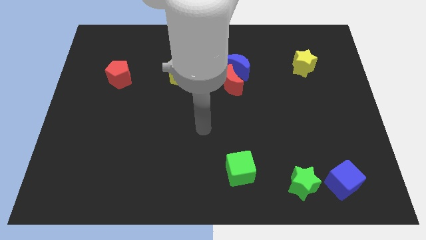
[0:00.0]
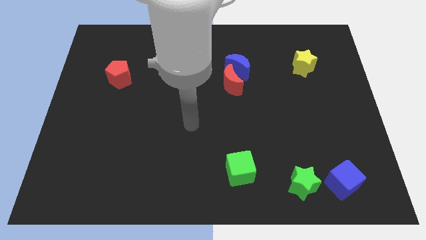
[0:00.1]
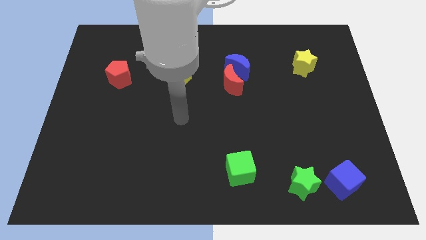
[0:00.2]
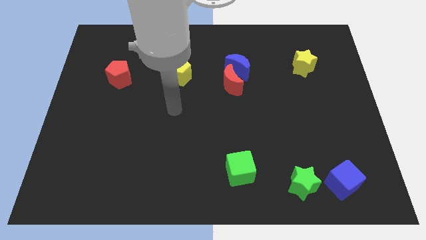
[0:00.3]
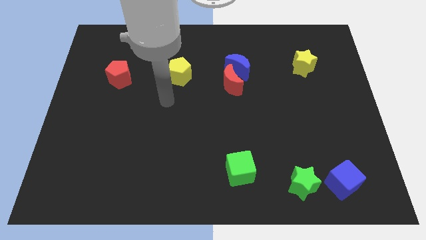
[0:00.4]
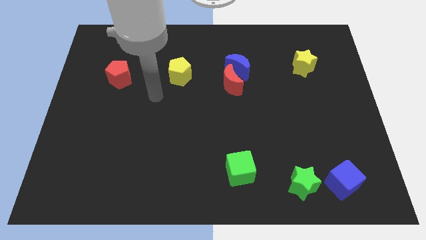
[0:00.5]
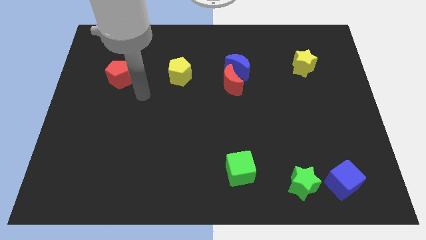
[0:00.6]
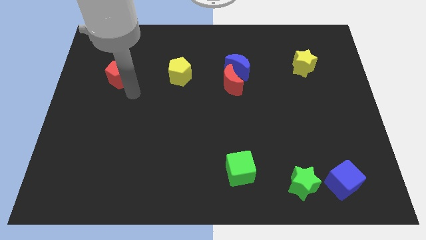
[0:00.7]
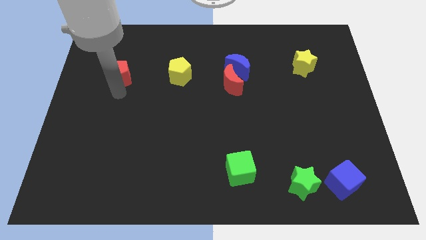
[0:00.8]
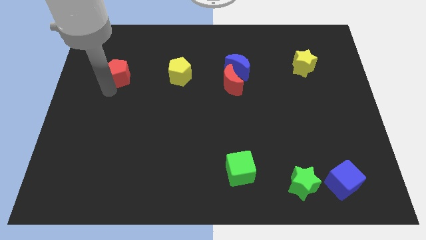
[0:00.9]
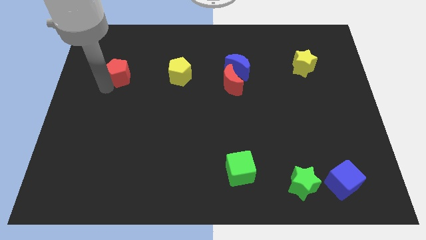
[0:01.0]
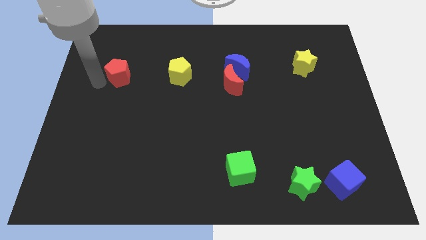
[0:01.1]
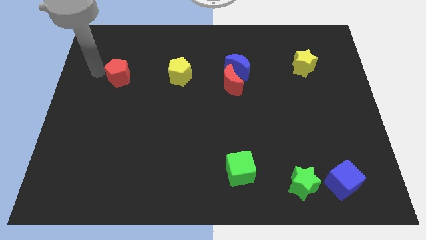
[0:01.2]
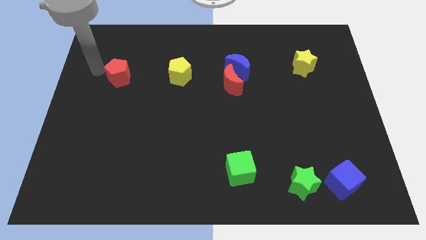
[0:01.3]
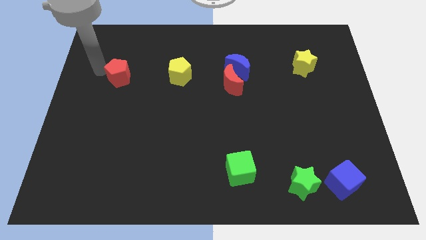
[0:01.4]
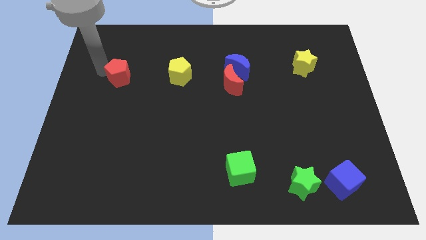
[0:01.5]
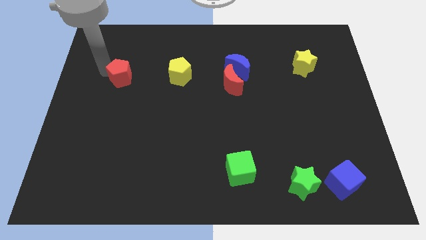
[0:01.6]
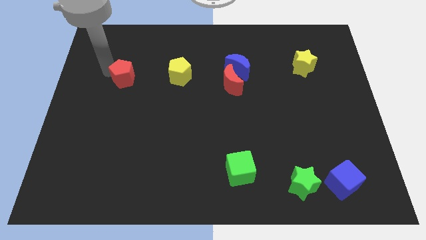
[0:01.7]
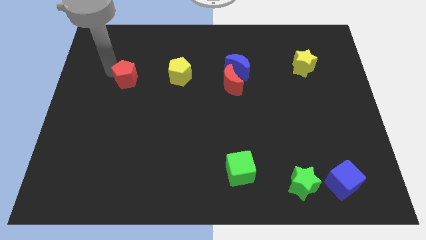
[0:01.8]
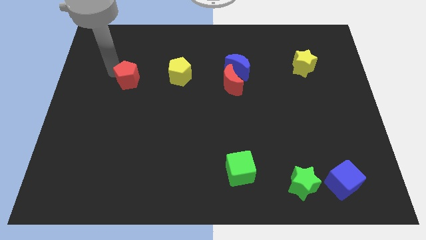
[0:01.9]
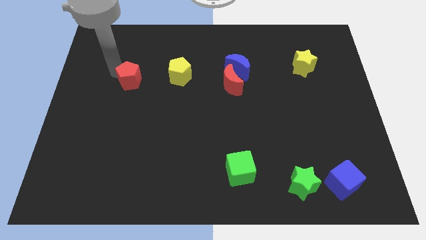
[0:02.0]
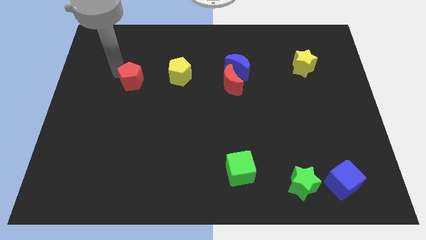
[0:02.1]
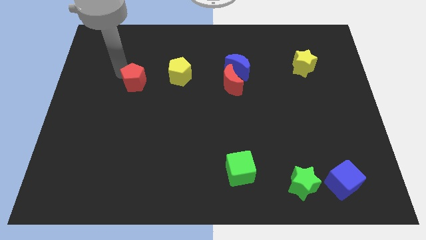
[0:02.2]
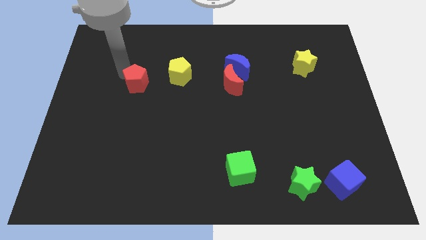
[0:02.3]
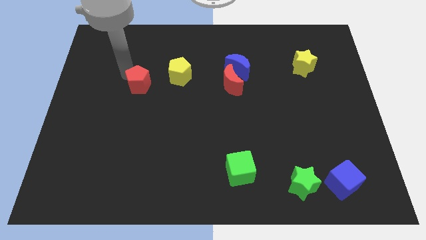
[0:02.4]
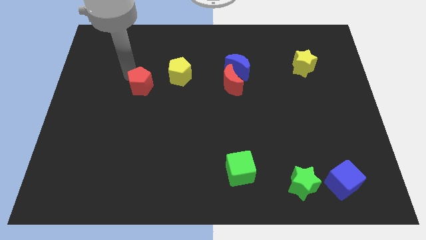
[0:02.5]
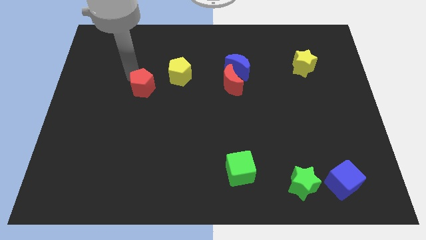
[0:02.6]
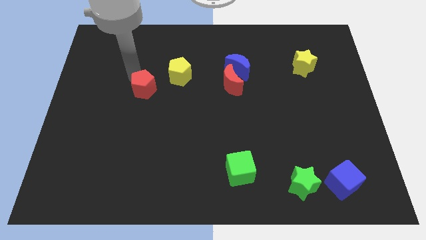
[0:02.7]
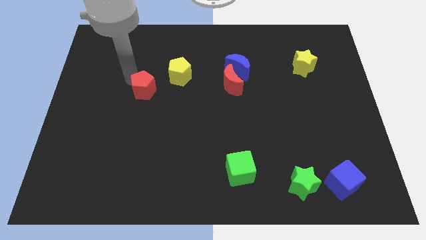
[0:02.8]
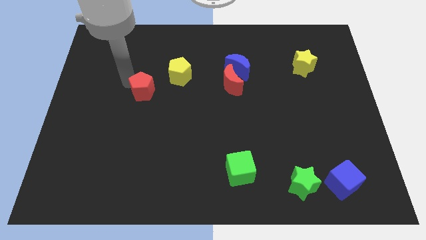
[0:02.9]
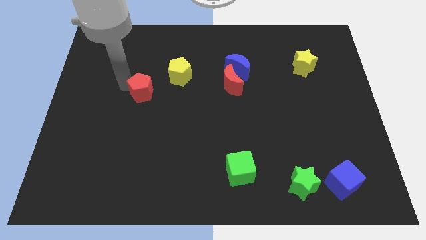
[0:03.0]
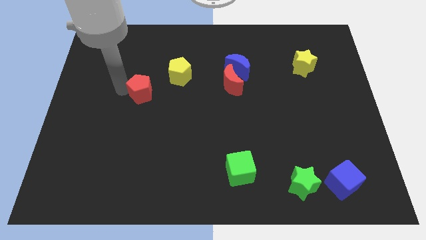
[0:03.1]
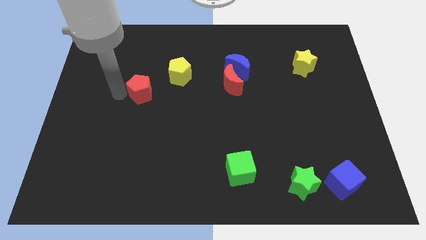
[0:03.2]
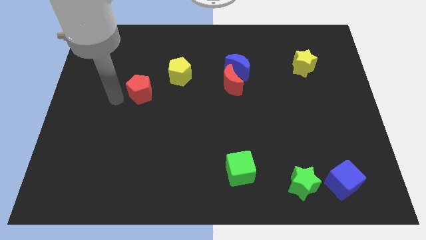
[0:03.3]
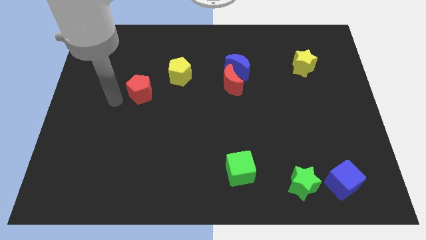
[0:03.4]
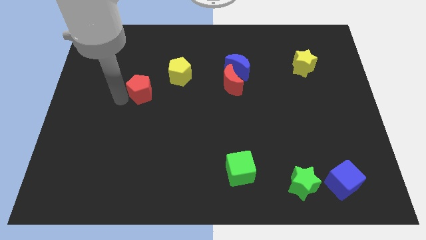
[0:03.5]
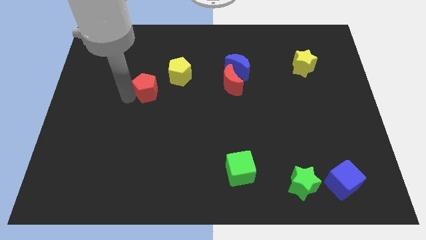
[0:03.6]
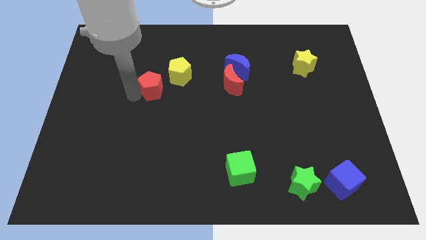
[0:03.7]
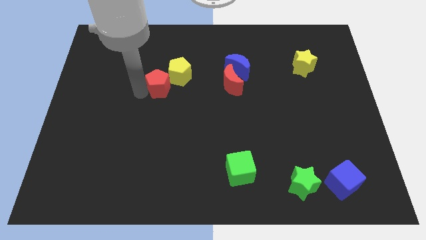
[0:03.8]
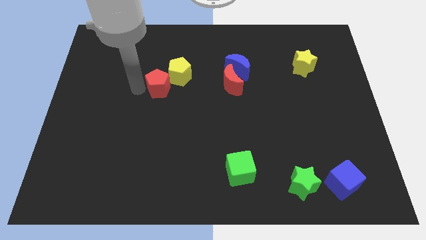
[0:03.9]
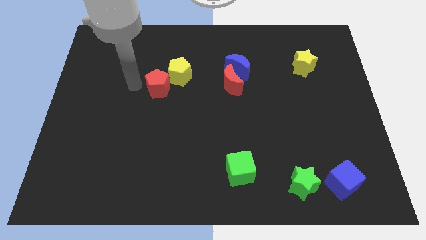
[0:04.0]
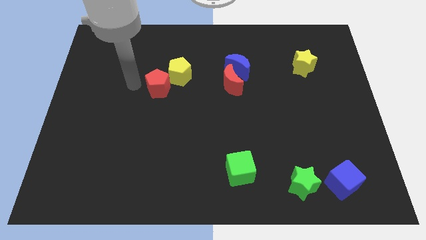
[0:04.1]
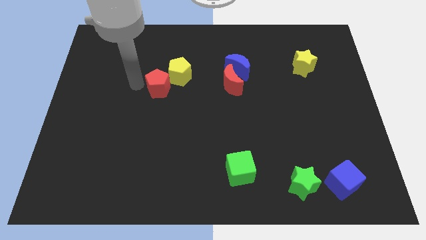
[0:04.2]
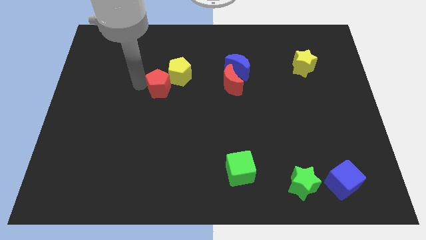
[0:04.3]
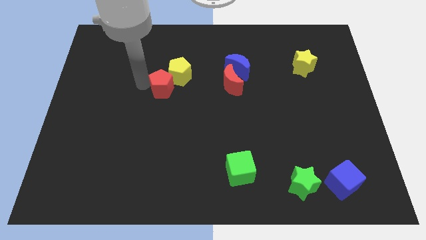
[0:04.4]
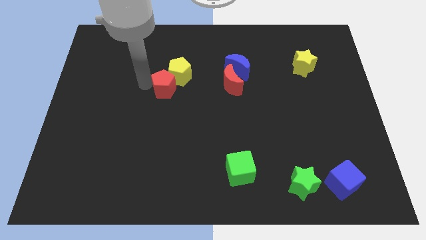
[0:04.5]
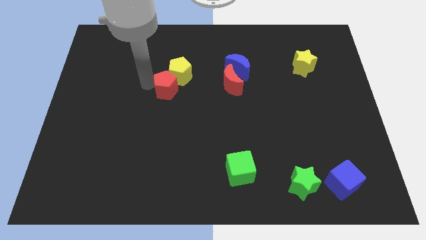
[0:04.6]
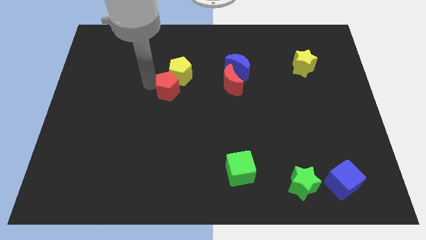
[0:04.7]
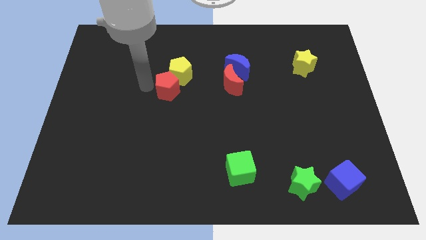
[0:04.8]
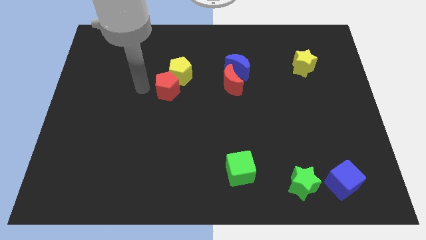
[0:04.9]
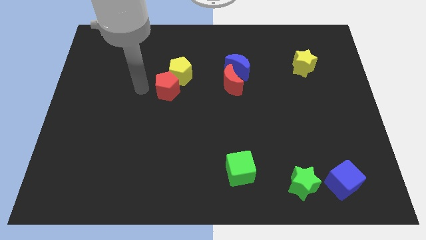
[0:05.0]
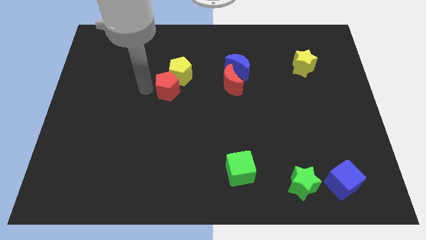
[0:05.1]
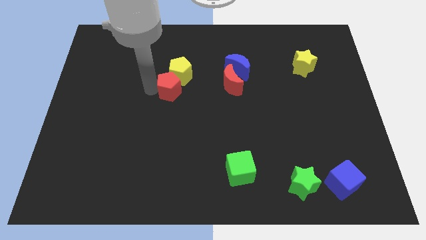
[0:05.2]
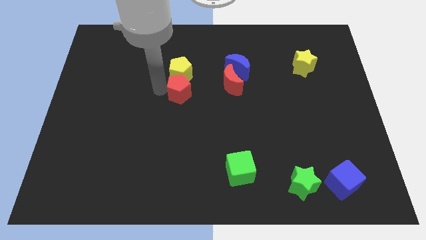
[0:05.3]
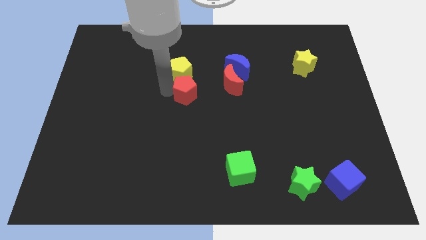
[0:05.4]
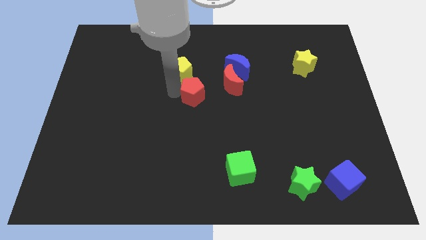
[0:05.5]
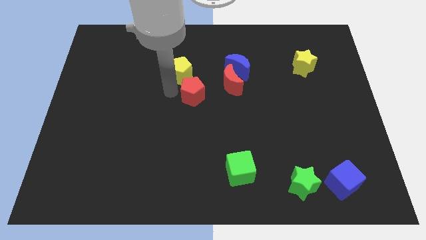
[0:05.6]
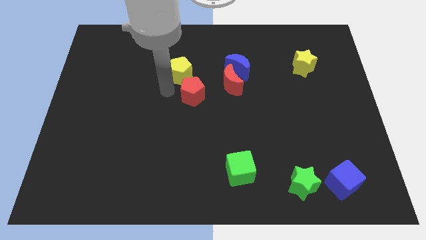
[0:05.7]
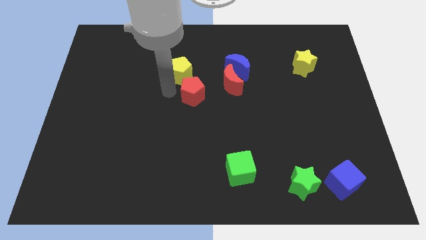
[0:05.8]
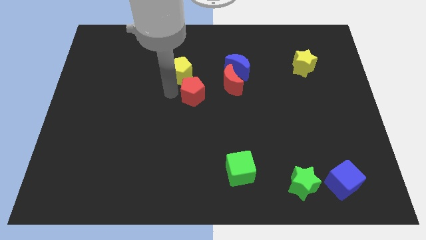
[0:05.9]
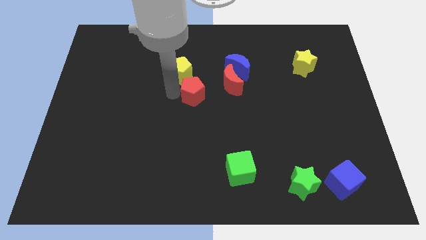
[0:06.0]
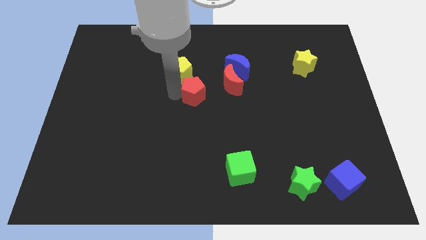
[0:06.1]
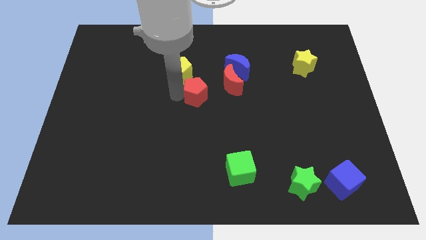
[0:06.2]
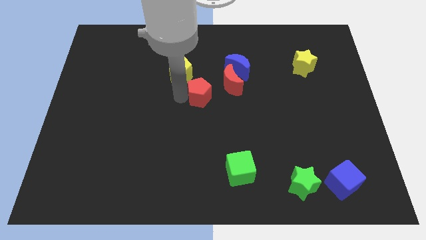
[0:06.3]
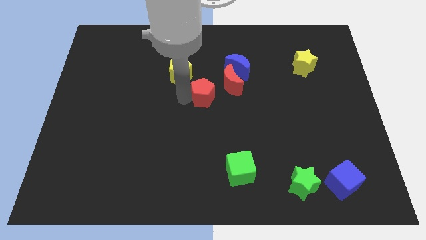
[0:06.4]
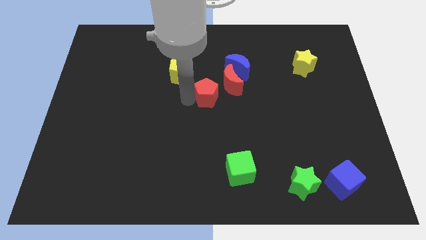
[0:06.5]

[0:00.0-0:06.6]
slide the red pentagon right

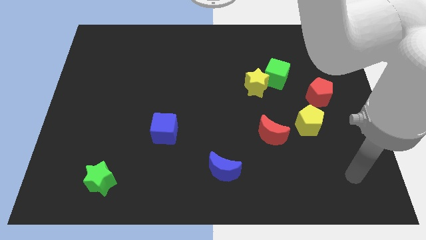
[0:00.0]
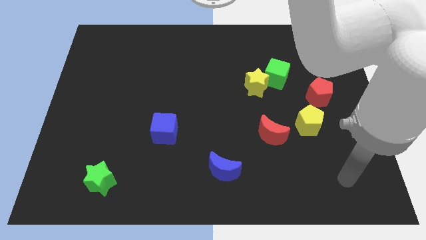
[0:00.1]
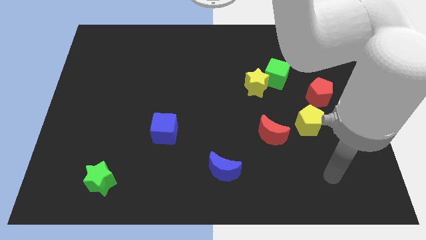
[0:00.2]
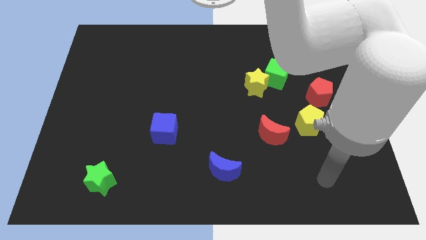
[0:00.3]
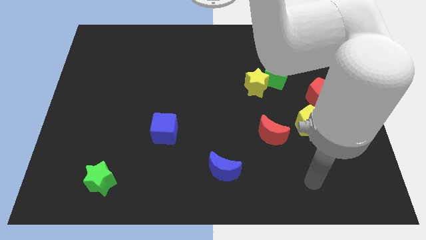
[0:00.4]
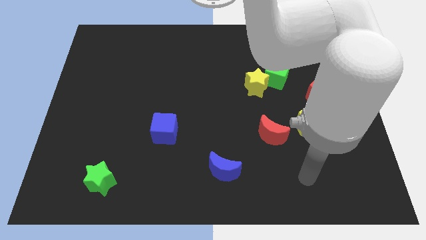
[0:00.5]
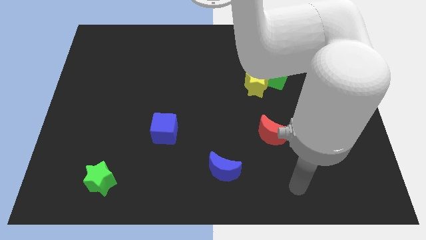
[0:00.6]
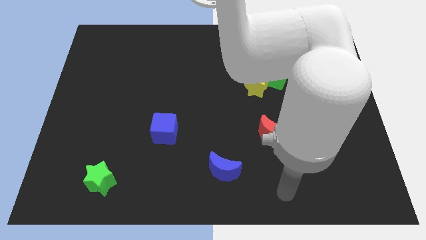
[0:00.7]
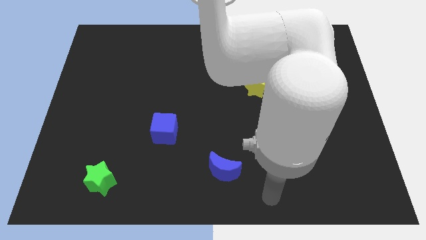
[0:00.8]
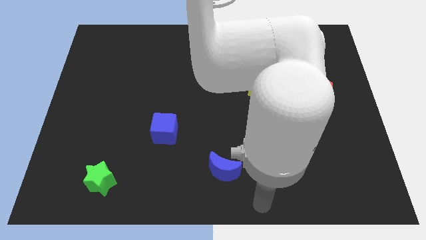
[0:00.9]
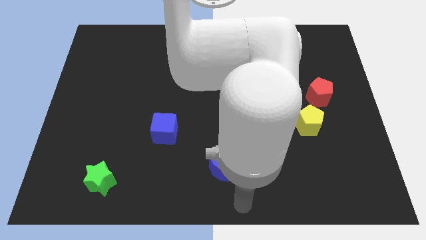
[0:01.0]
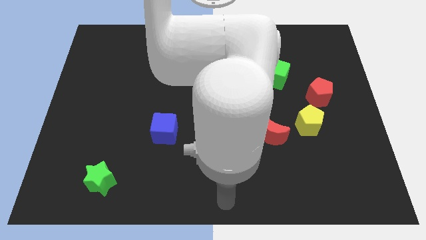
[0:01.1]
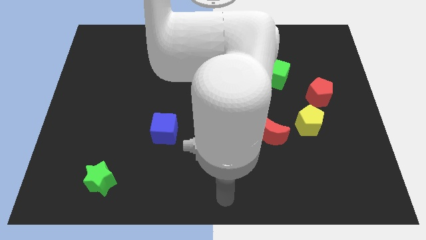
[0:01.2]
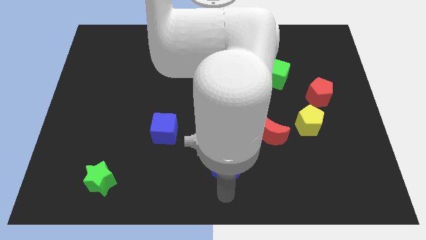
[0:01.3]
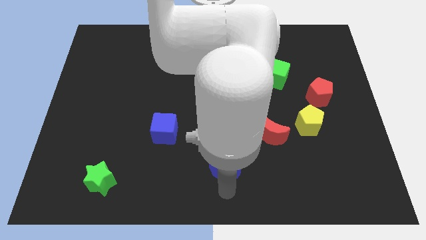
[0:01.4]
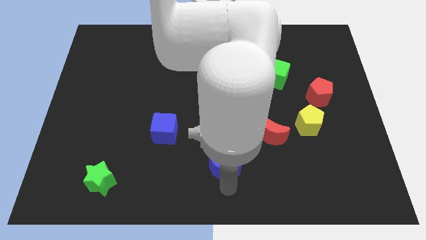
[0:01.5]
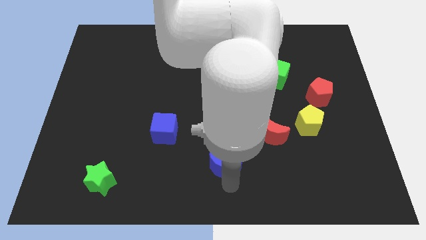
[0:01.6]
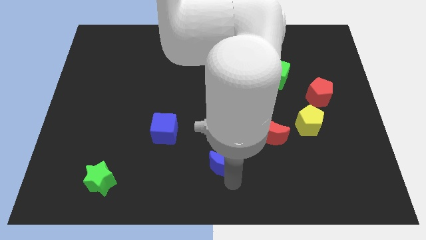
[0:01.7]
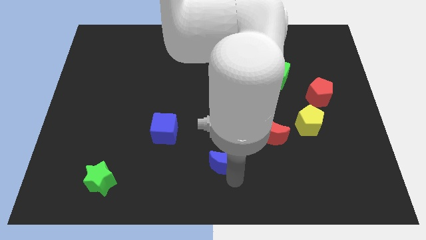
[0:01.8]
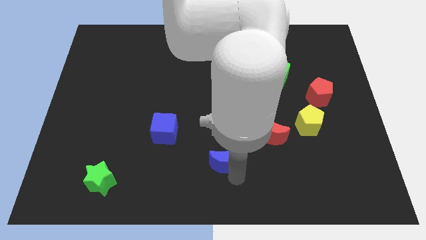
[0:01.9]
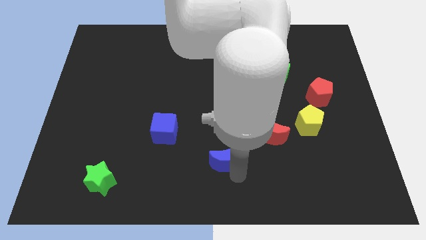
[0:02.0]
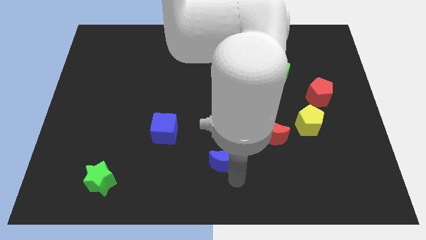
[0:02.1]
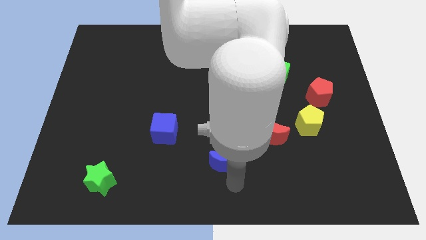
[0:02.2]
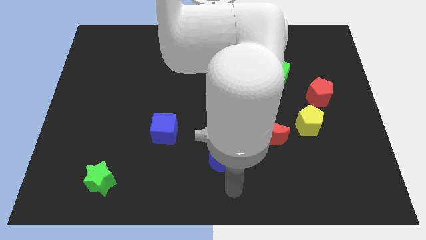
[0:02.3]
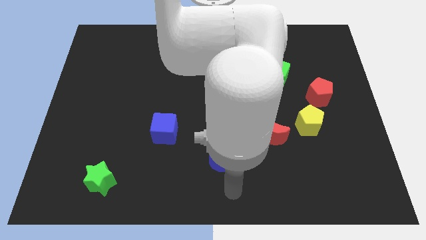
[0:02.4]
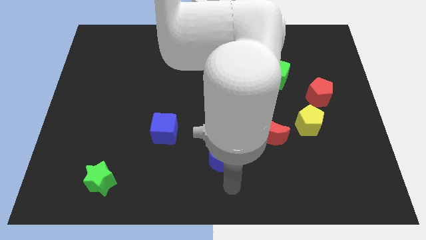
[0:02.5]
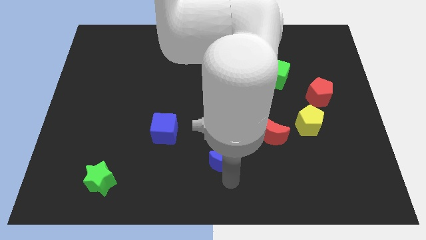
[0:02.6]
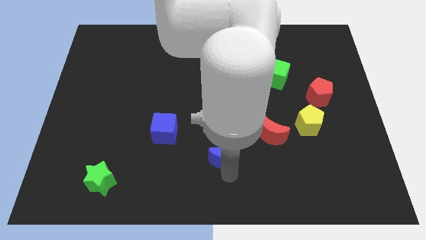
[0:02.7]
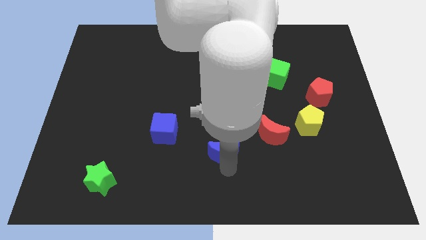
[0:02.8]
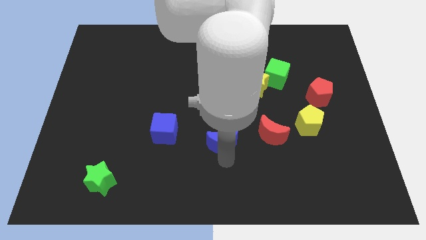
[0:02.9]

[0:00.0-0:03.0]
slightly move the blue moon upwards
